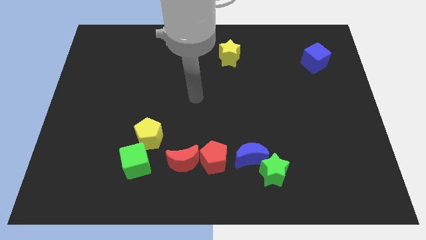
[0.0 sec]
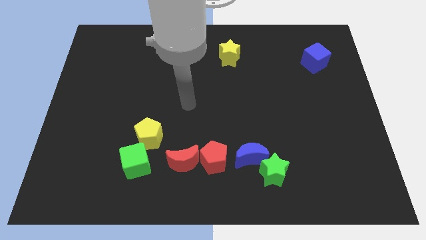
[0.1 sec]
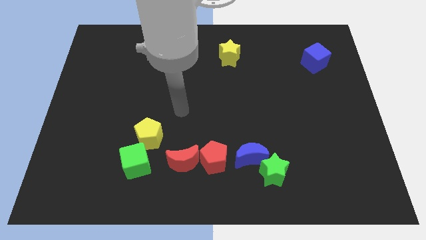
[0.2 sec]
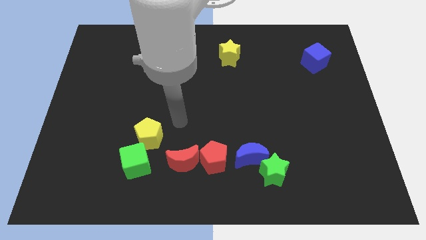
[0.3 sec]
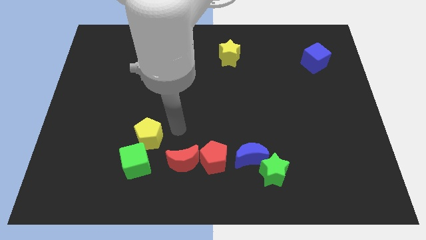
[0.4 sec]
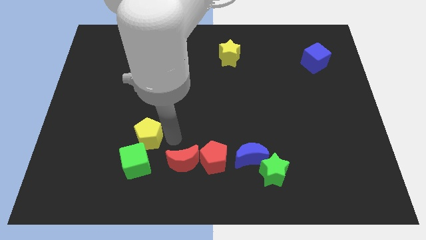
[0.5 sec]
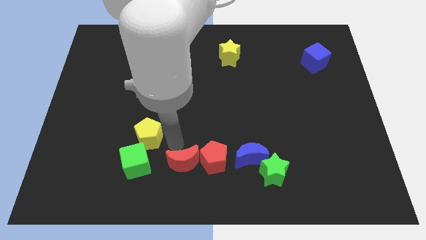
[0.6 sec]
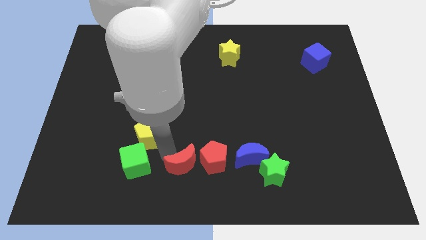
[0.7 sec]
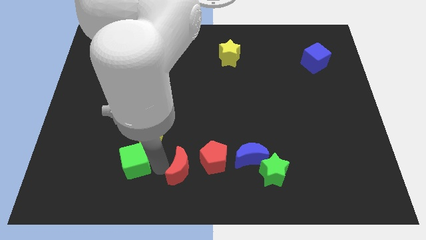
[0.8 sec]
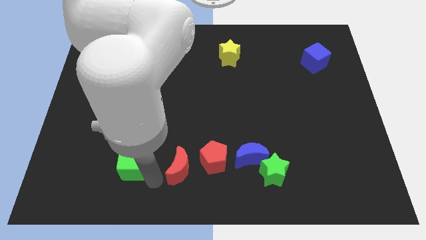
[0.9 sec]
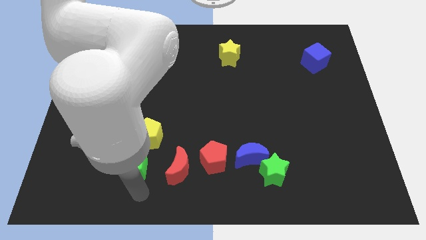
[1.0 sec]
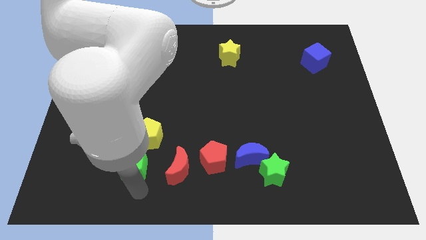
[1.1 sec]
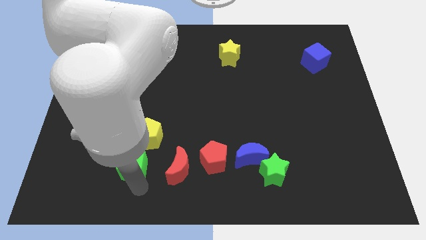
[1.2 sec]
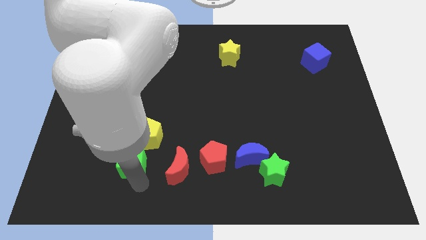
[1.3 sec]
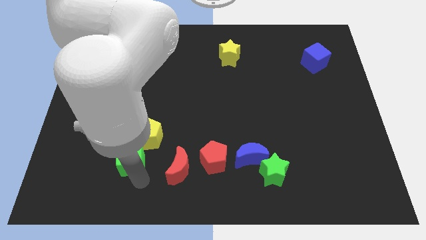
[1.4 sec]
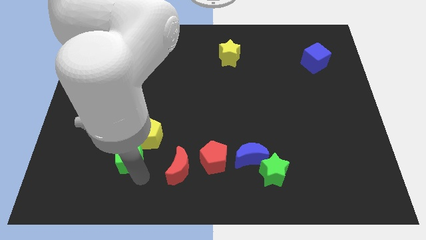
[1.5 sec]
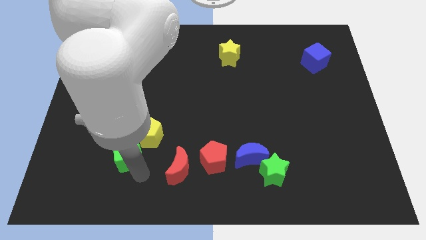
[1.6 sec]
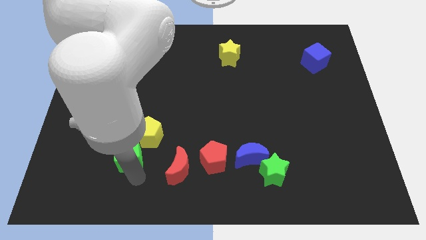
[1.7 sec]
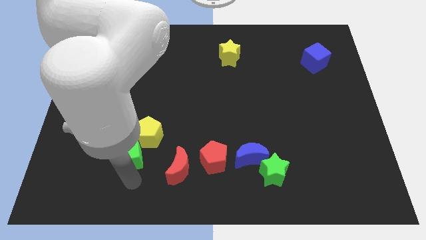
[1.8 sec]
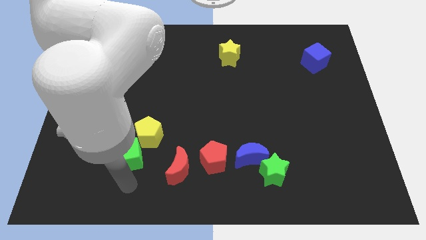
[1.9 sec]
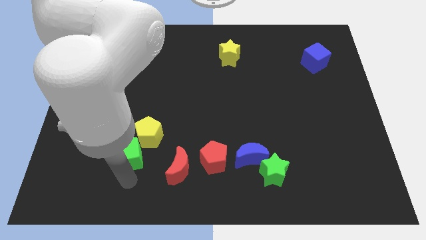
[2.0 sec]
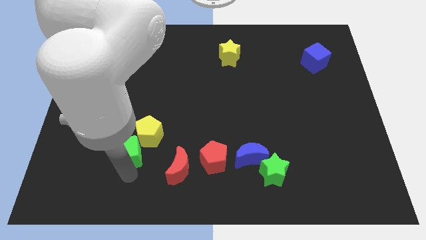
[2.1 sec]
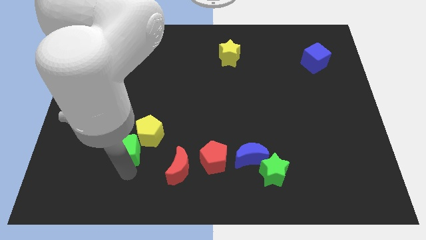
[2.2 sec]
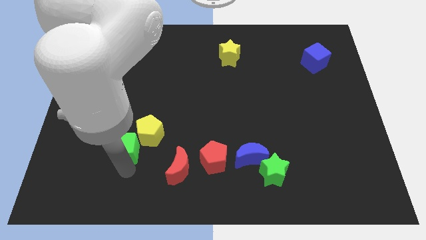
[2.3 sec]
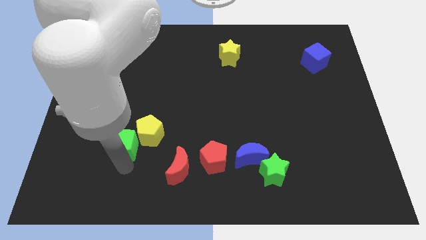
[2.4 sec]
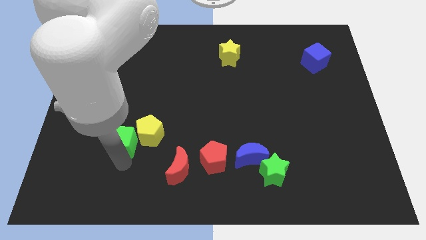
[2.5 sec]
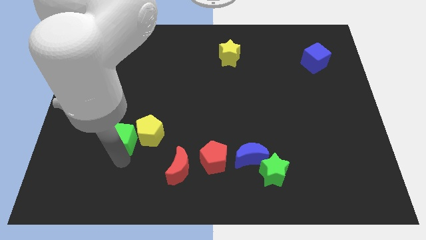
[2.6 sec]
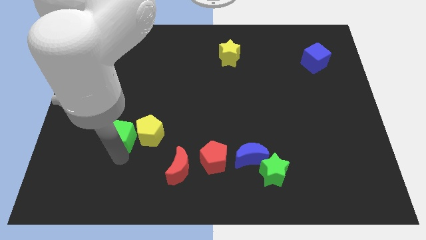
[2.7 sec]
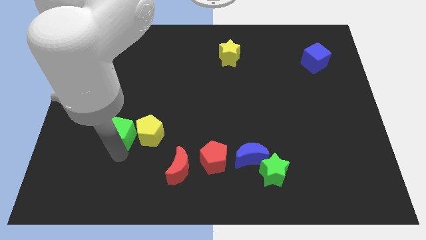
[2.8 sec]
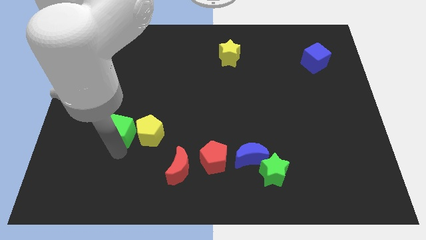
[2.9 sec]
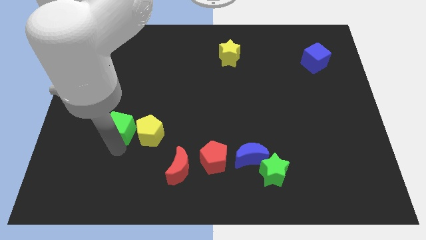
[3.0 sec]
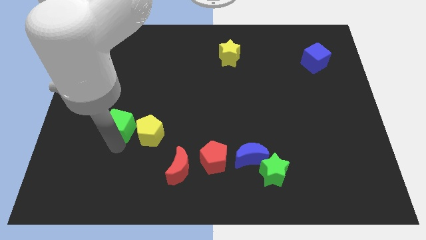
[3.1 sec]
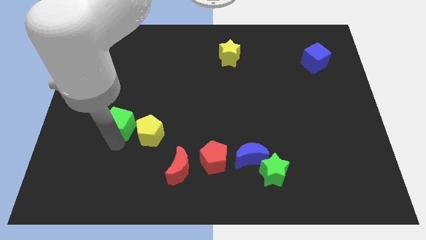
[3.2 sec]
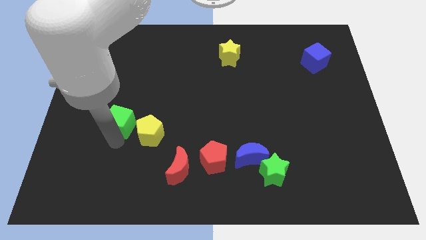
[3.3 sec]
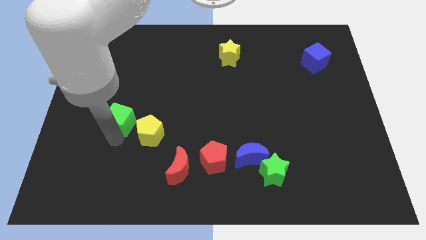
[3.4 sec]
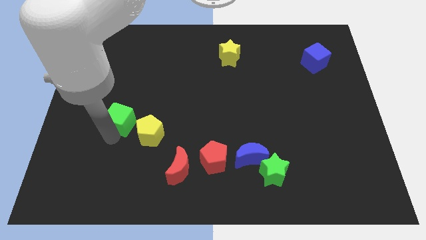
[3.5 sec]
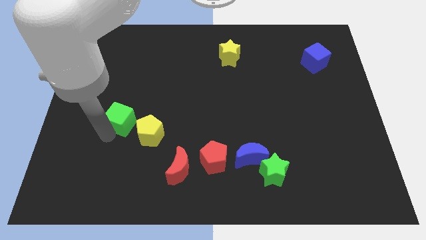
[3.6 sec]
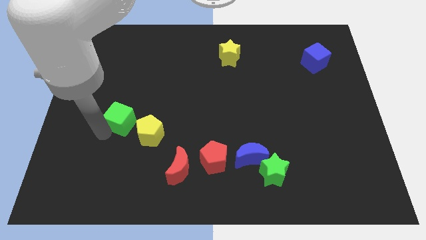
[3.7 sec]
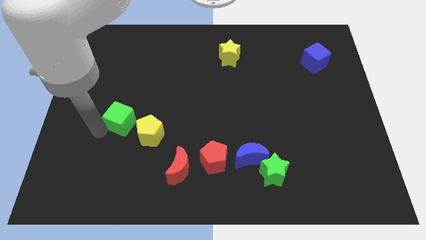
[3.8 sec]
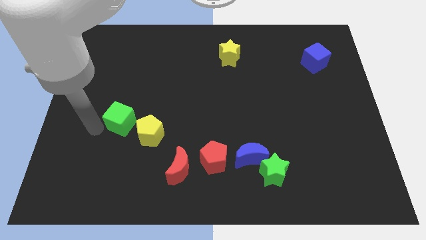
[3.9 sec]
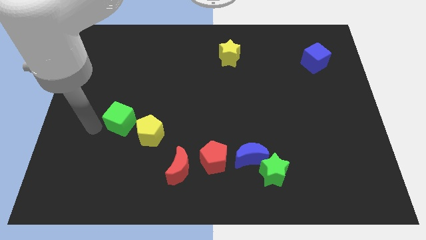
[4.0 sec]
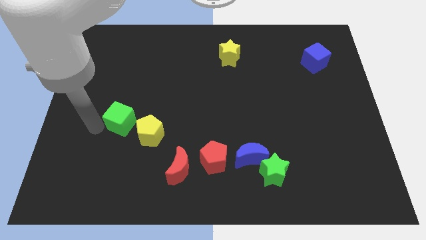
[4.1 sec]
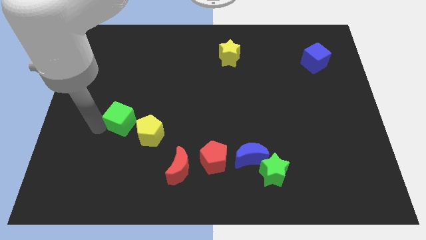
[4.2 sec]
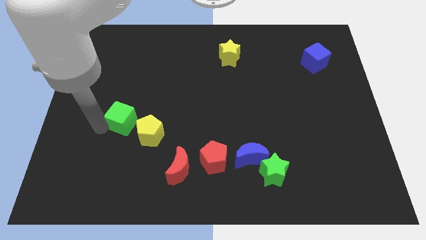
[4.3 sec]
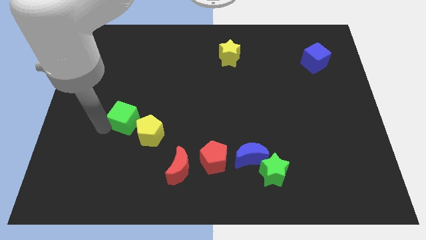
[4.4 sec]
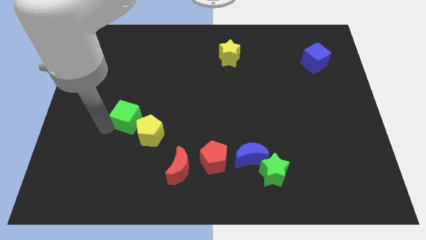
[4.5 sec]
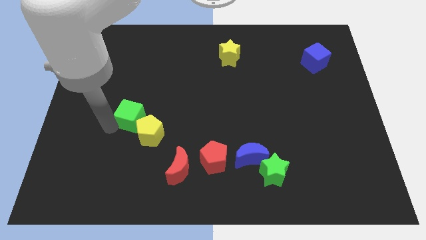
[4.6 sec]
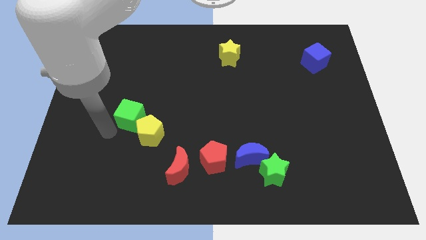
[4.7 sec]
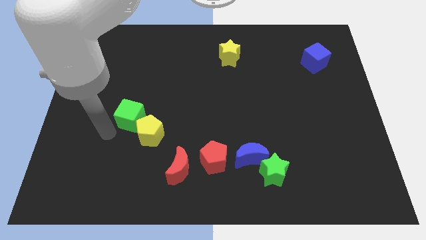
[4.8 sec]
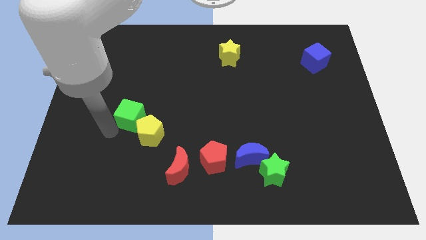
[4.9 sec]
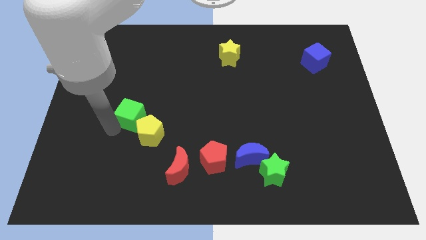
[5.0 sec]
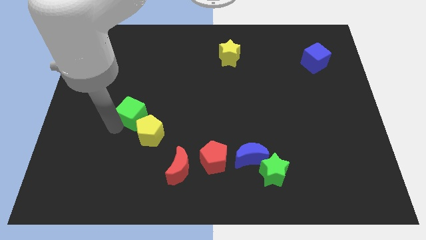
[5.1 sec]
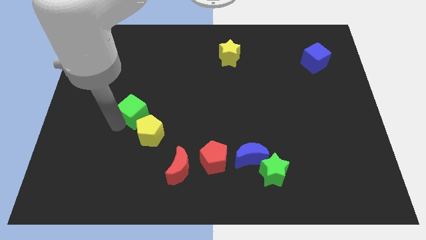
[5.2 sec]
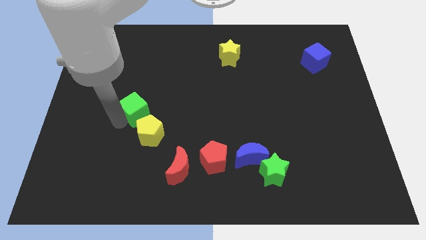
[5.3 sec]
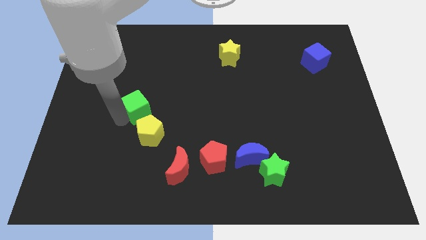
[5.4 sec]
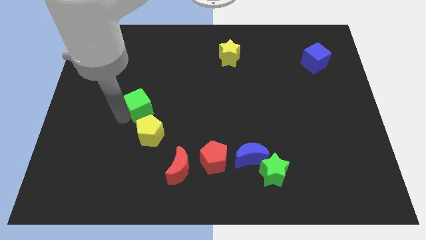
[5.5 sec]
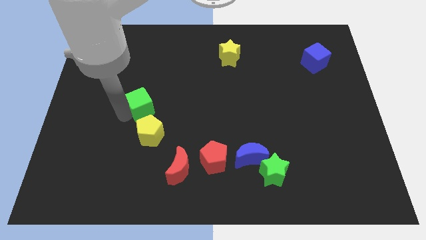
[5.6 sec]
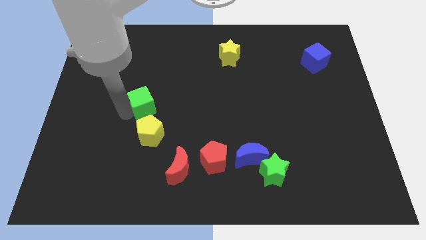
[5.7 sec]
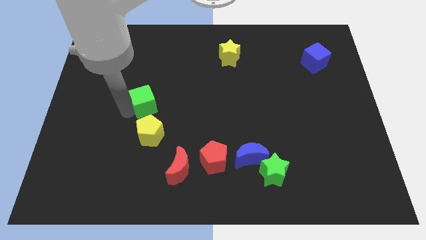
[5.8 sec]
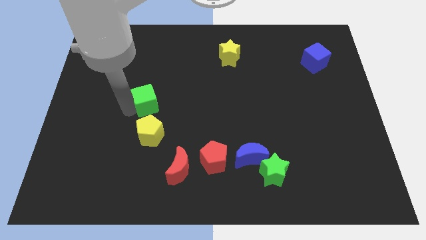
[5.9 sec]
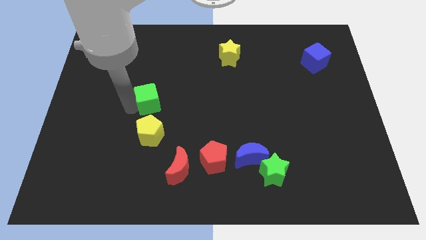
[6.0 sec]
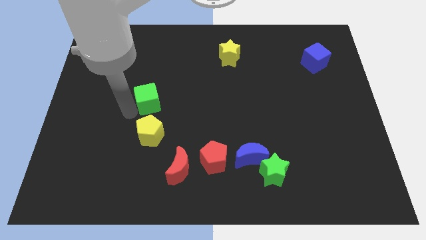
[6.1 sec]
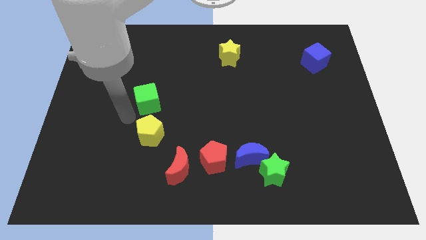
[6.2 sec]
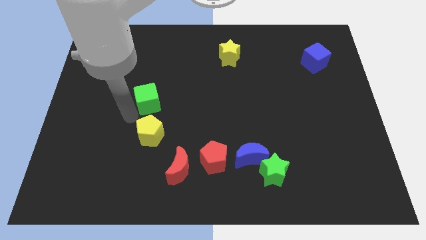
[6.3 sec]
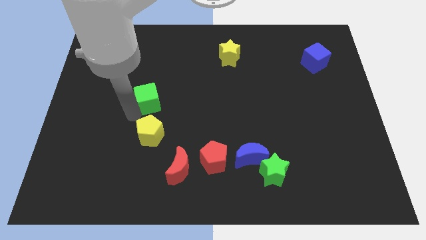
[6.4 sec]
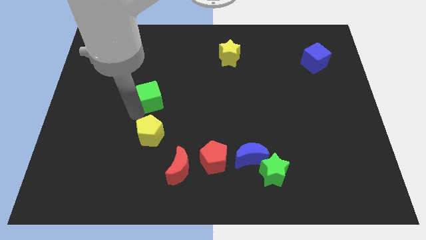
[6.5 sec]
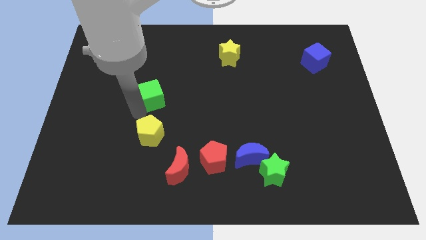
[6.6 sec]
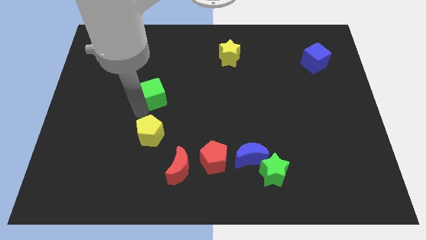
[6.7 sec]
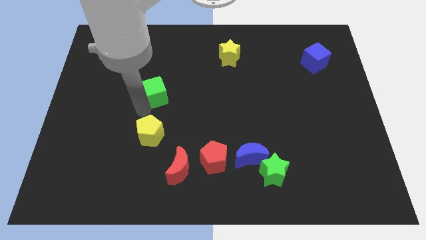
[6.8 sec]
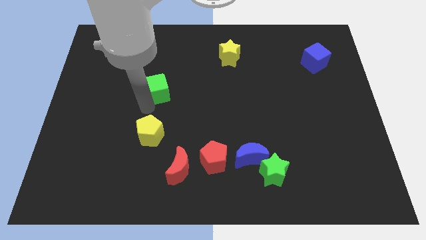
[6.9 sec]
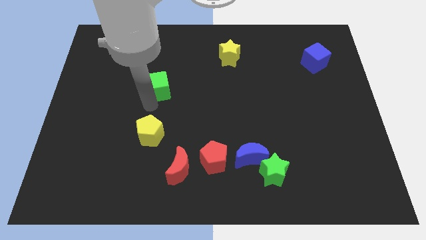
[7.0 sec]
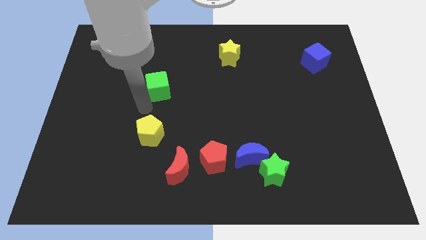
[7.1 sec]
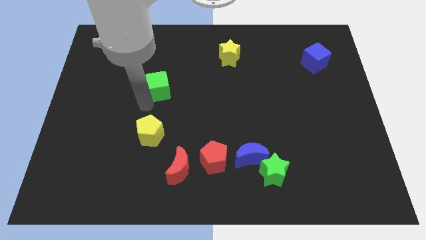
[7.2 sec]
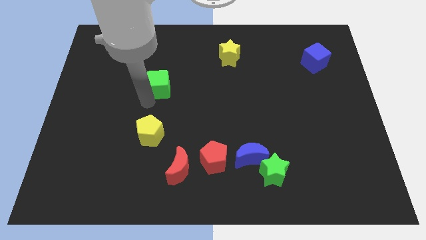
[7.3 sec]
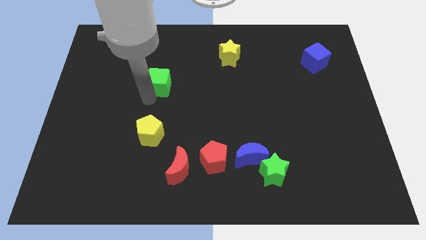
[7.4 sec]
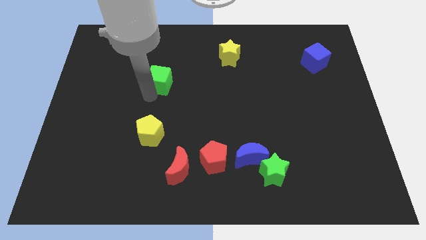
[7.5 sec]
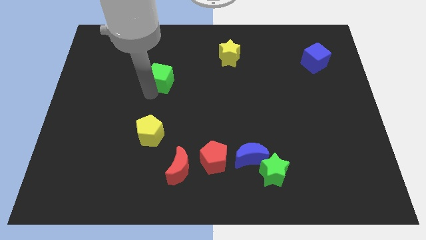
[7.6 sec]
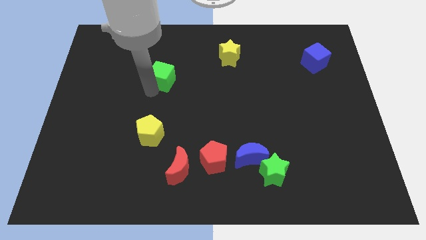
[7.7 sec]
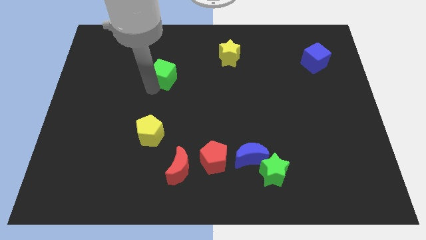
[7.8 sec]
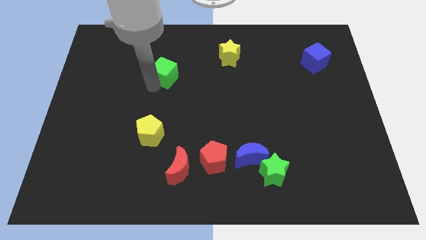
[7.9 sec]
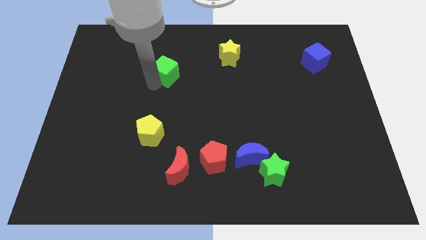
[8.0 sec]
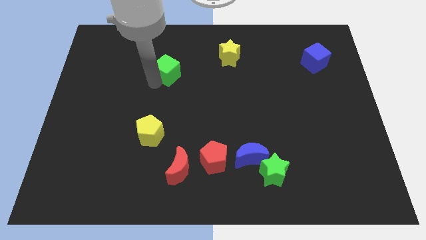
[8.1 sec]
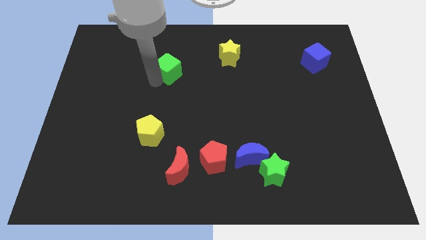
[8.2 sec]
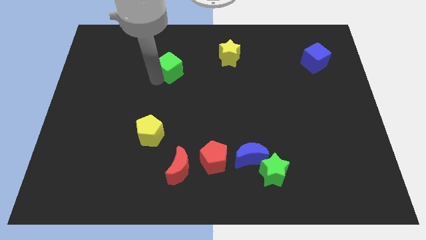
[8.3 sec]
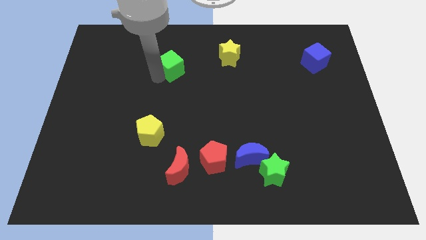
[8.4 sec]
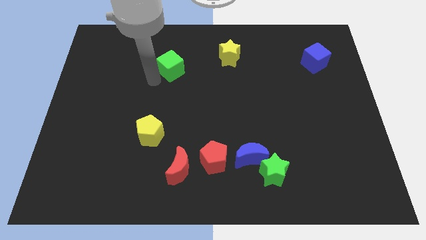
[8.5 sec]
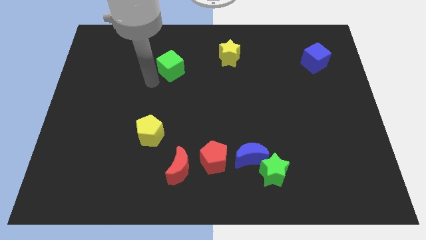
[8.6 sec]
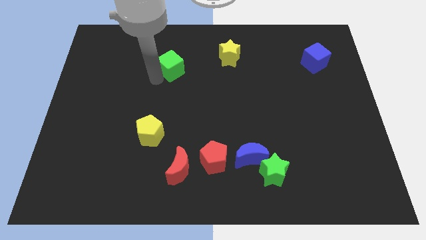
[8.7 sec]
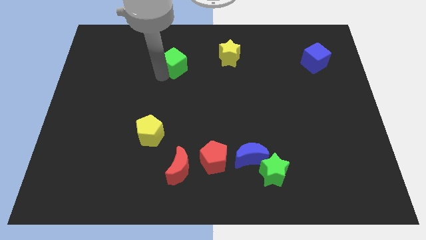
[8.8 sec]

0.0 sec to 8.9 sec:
put the green cube left of the yellow star
